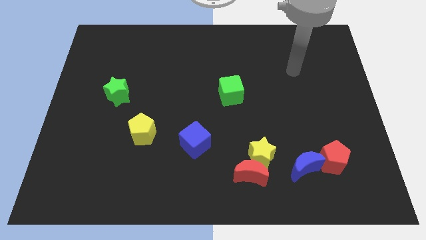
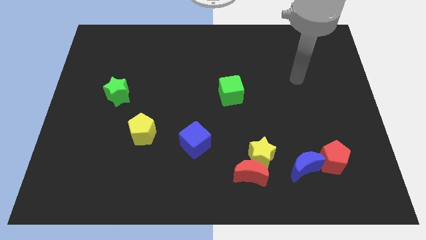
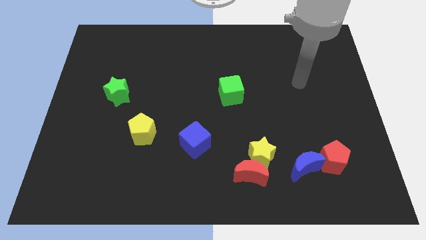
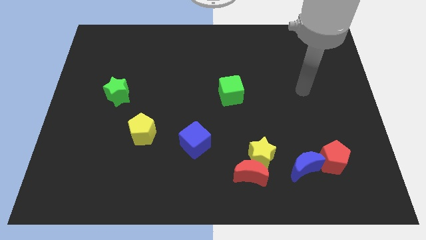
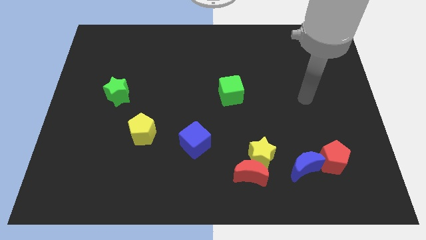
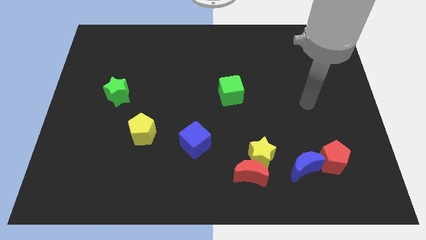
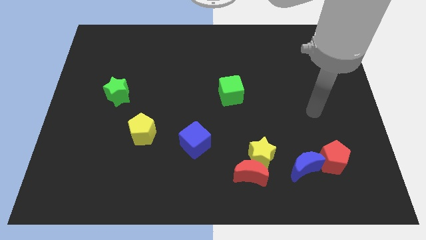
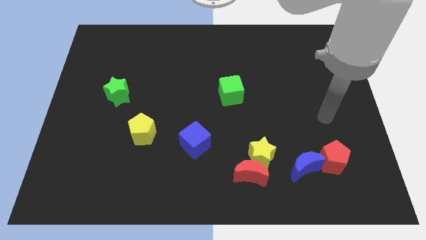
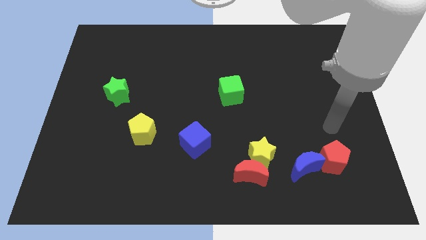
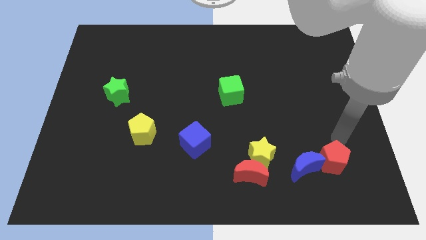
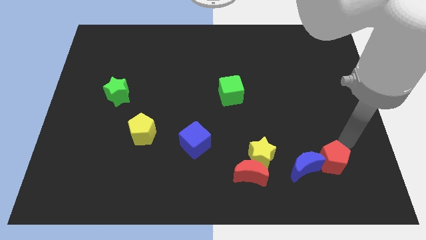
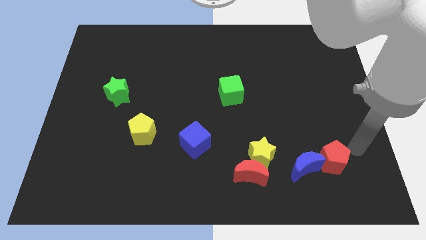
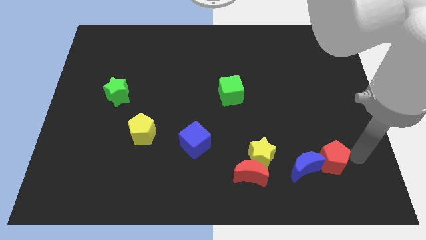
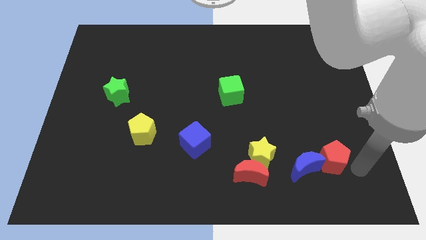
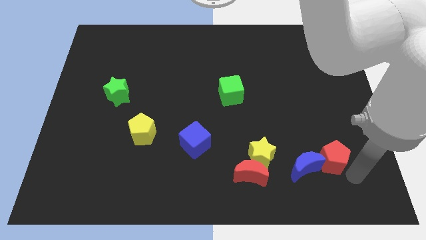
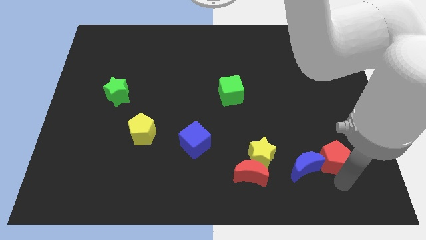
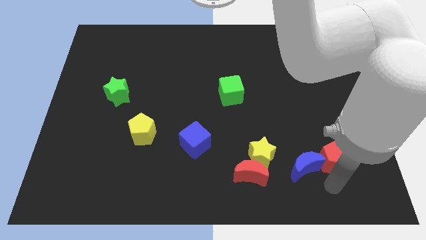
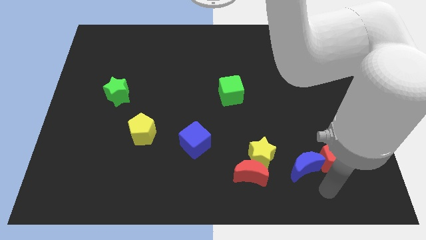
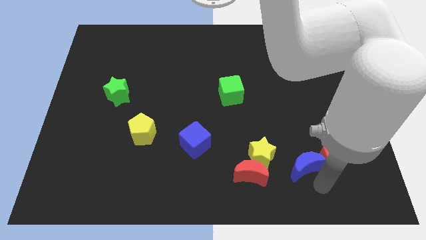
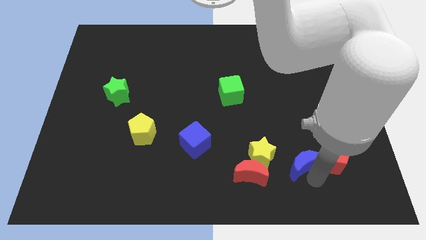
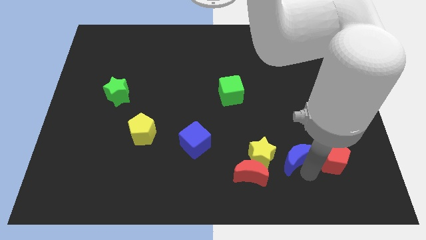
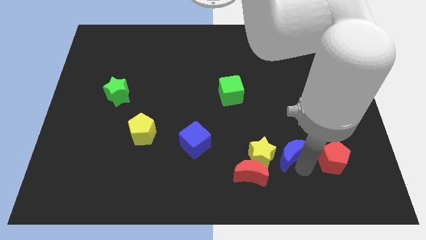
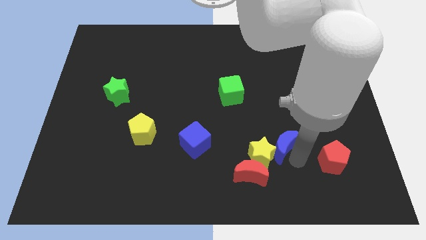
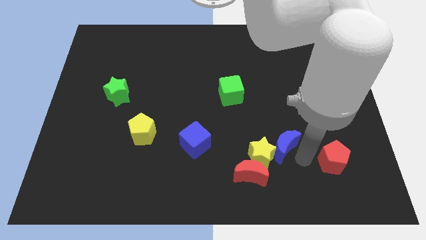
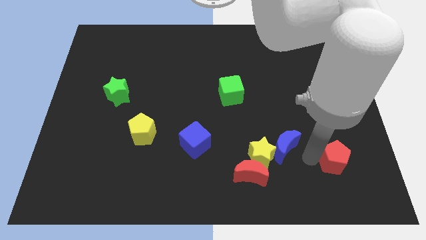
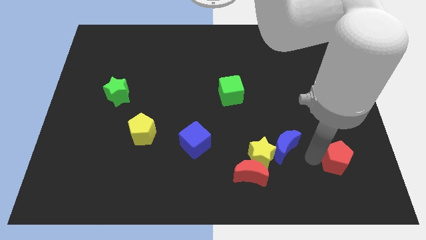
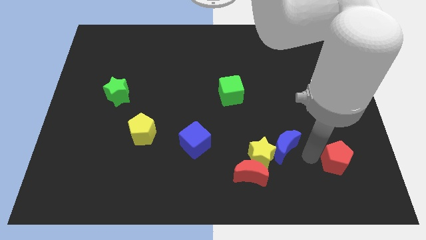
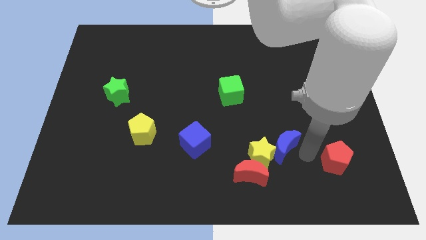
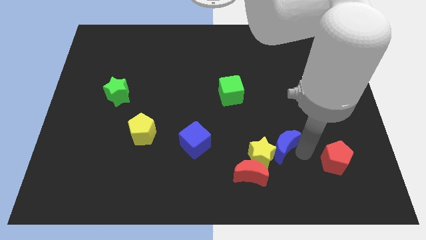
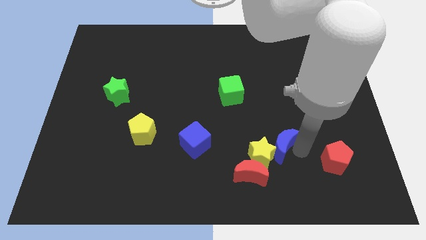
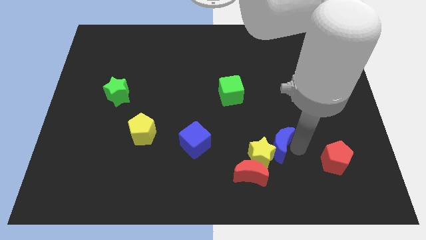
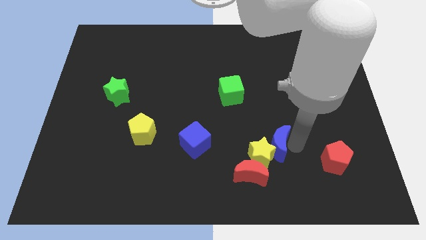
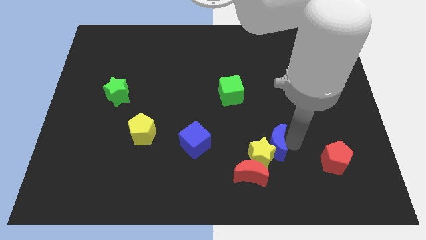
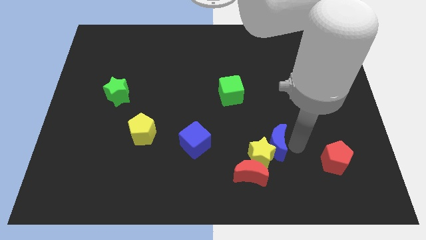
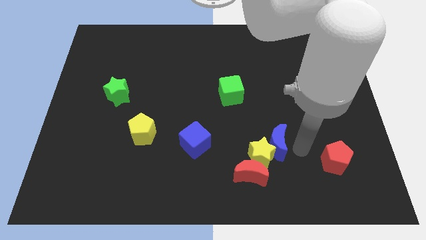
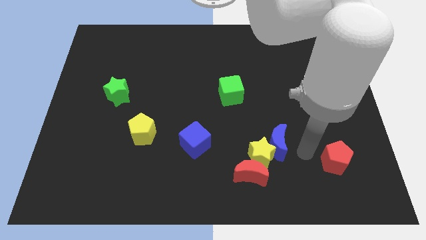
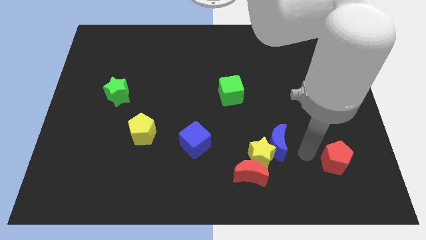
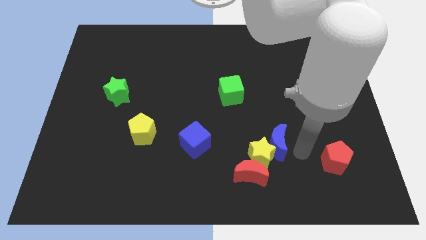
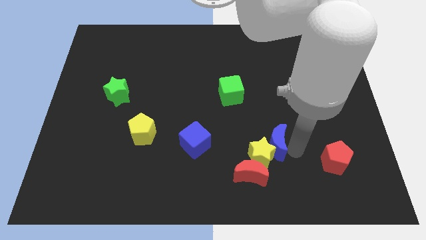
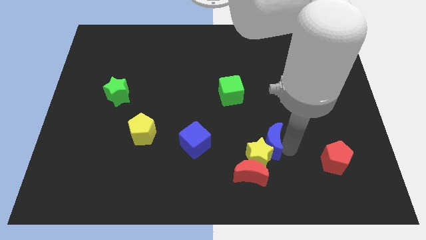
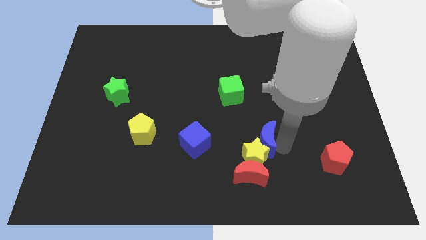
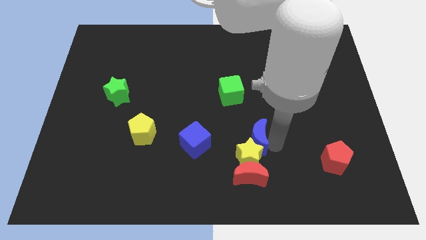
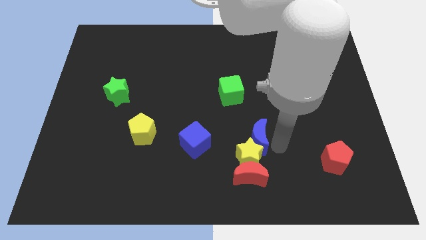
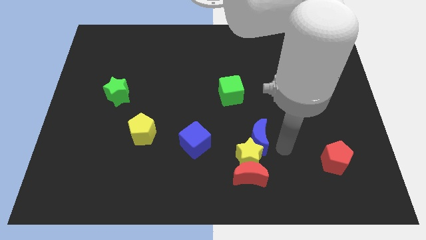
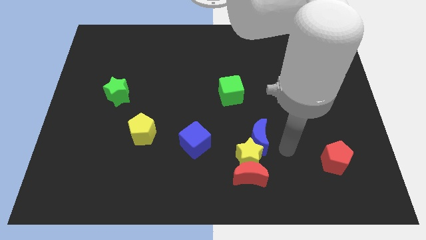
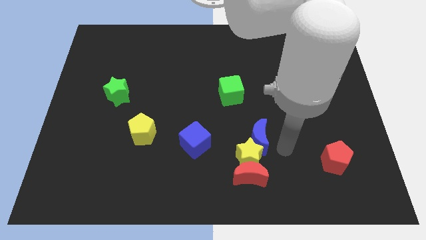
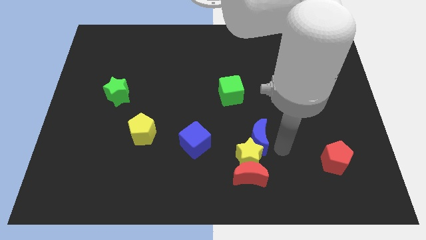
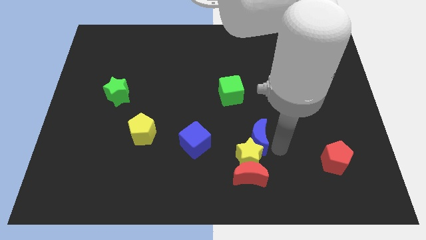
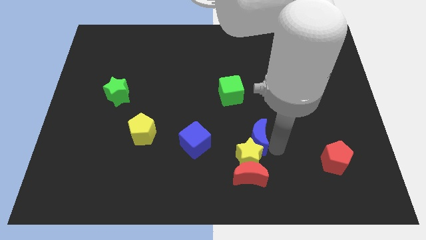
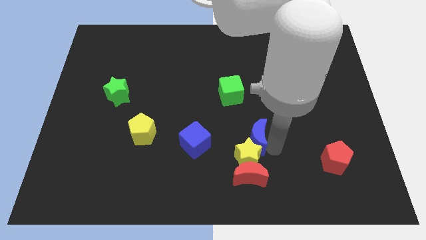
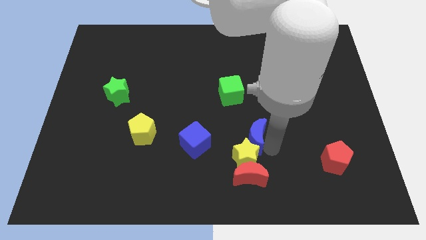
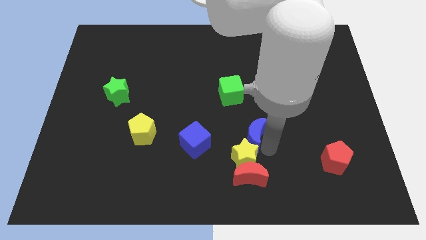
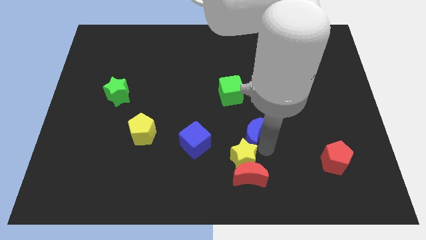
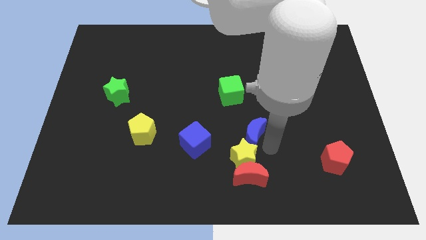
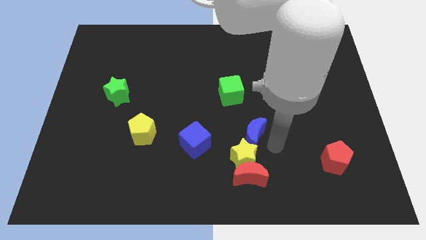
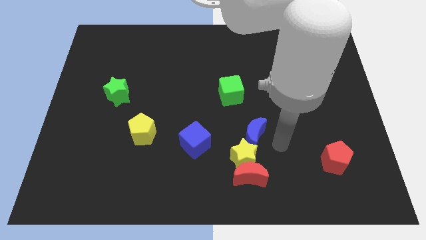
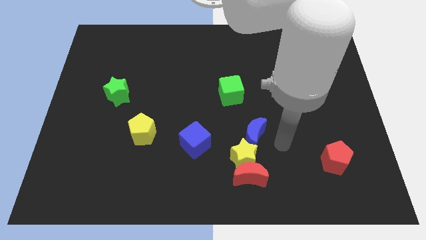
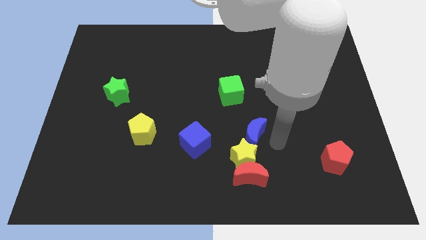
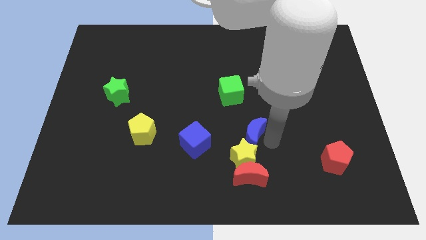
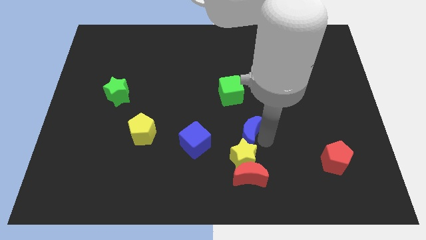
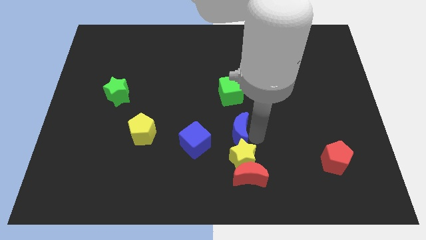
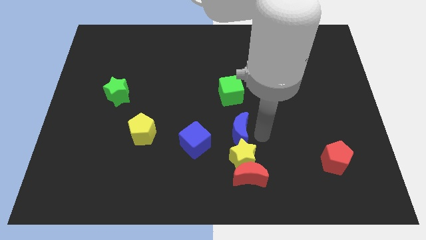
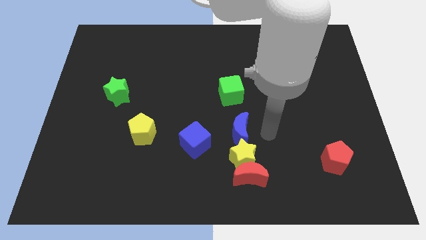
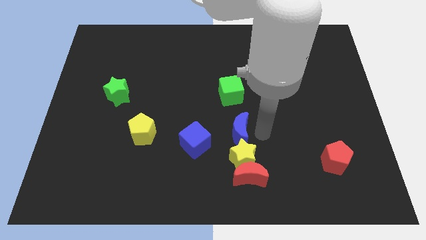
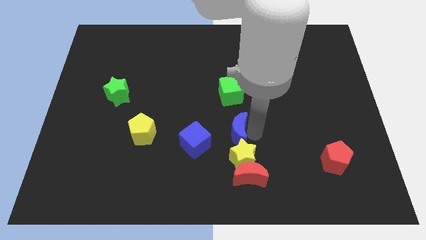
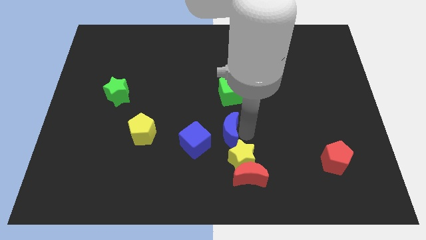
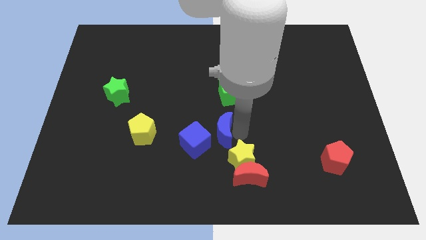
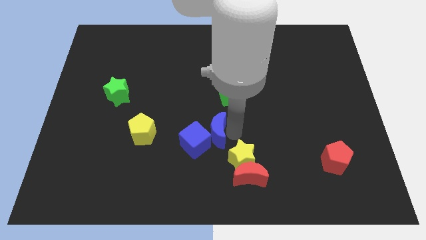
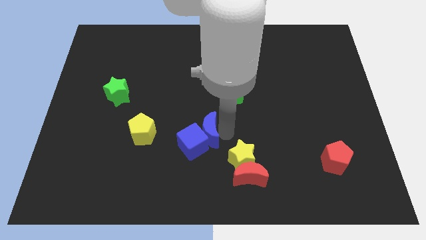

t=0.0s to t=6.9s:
put the blue moon just right of the yellow pentagon

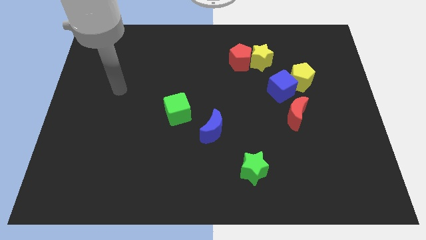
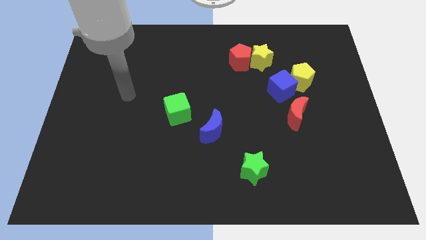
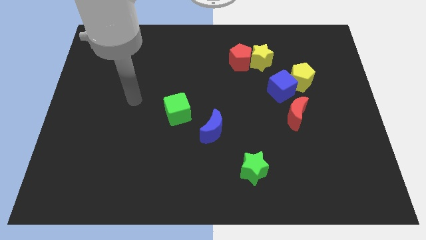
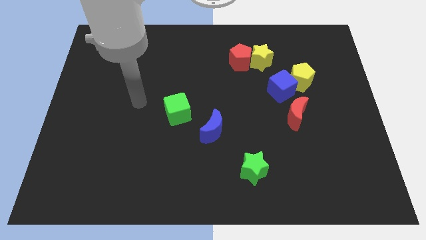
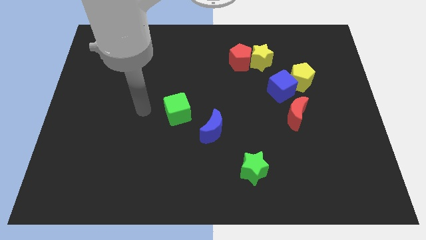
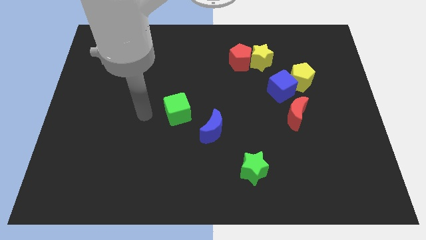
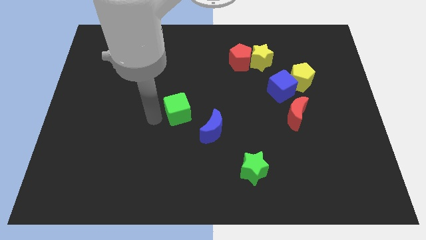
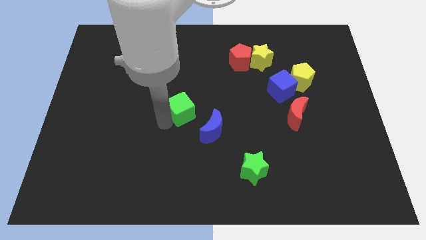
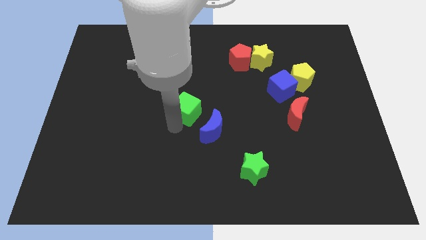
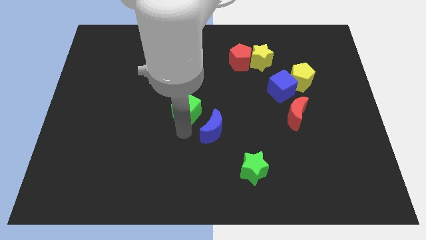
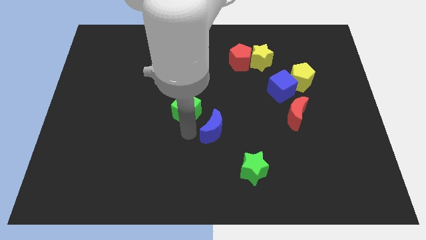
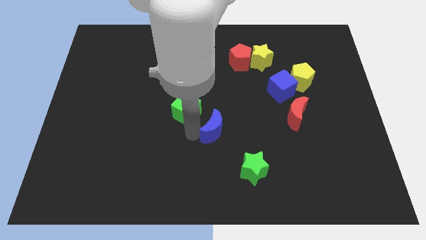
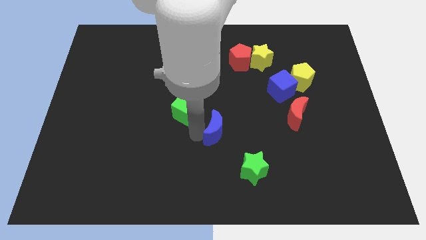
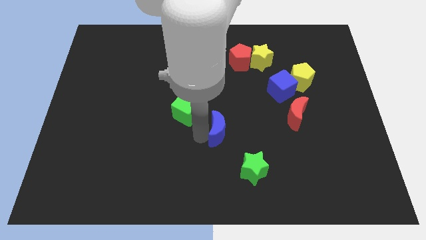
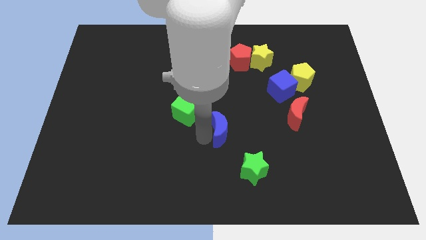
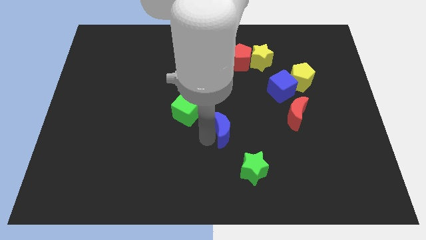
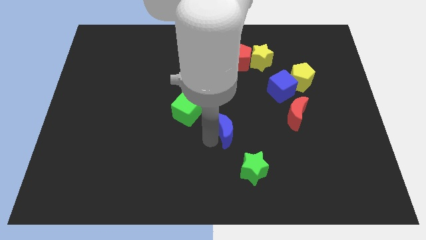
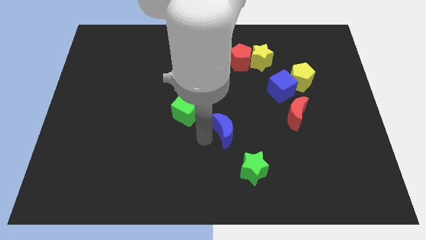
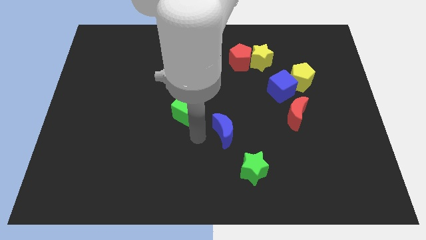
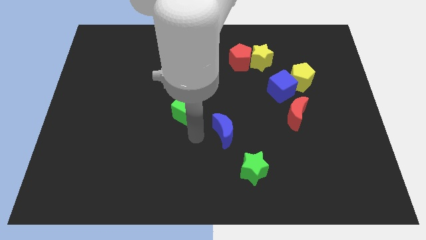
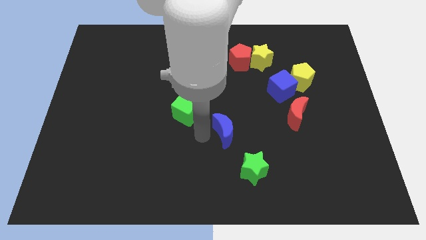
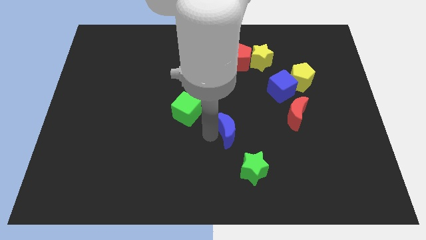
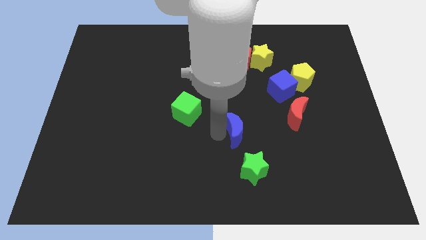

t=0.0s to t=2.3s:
put the blue moon to the top side of the green star
